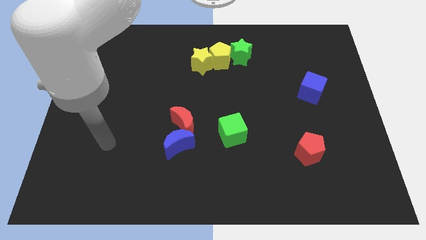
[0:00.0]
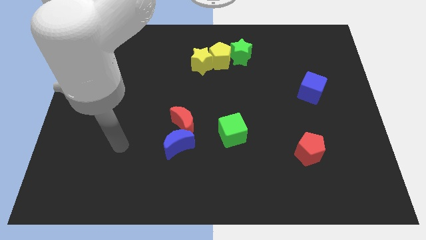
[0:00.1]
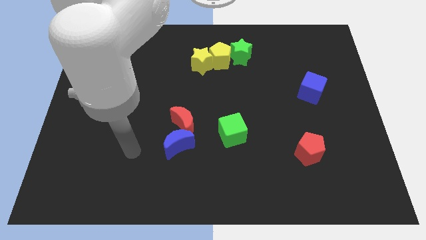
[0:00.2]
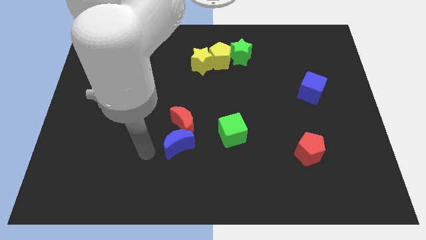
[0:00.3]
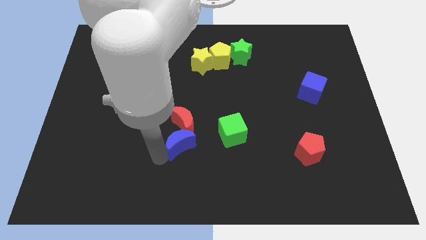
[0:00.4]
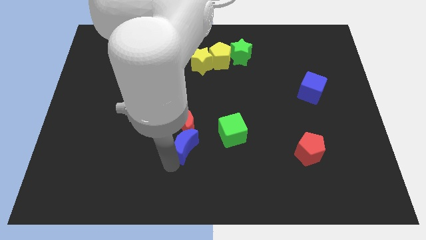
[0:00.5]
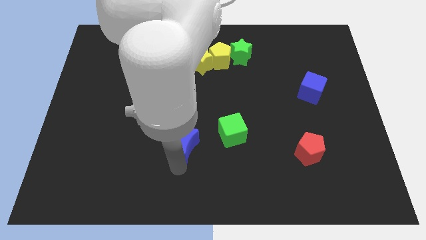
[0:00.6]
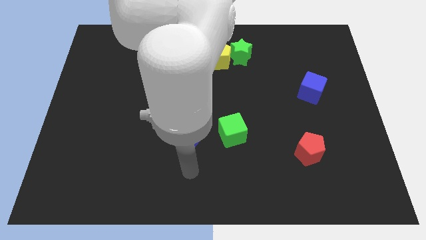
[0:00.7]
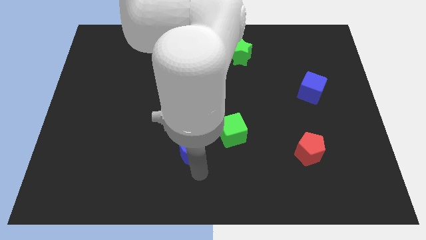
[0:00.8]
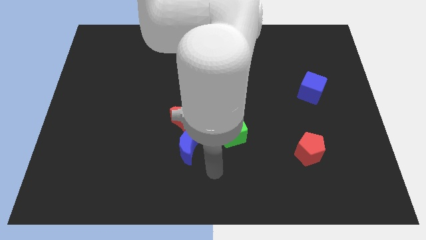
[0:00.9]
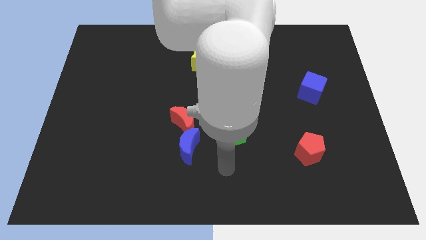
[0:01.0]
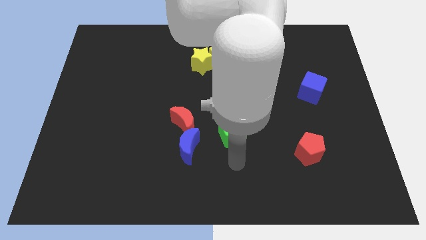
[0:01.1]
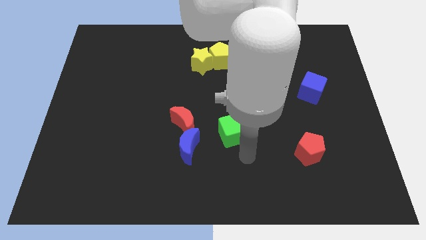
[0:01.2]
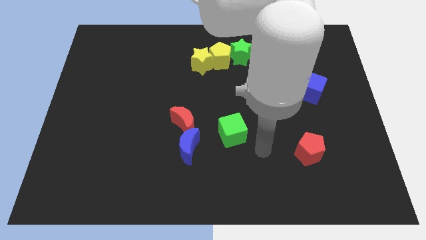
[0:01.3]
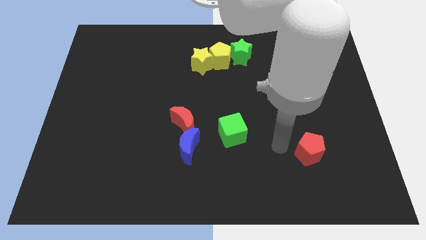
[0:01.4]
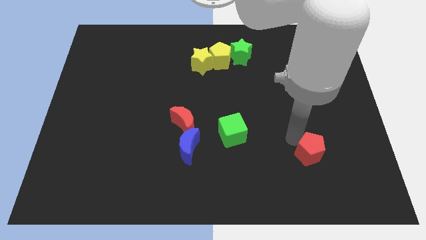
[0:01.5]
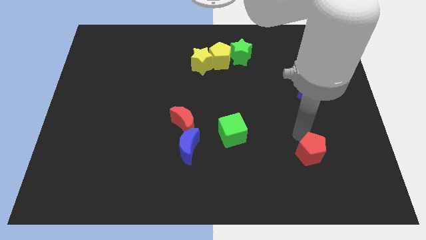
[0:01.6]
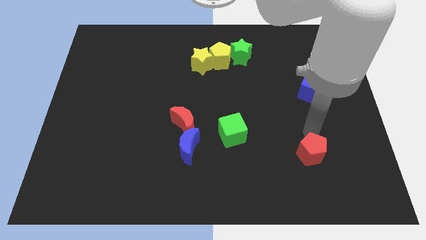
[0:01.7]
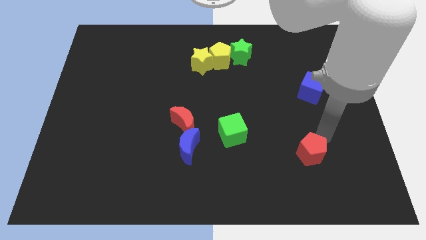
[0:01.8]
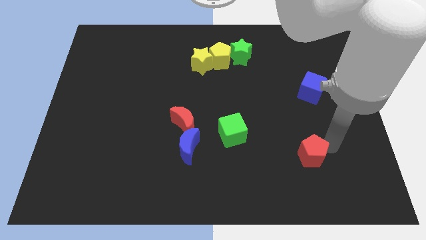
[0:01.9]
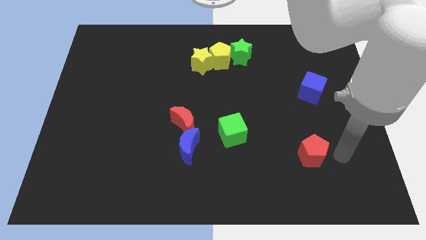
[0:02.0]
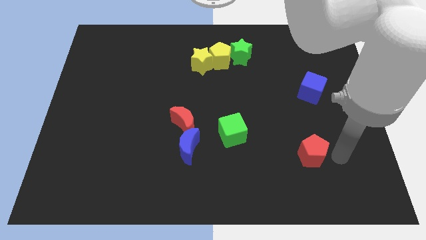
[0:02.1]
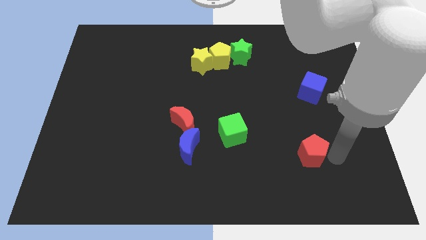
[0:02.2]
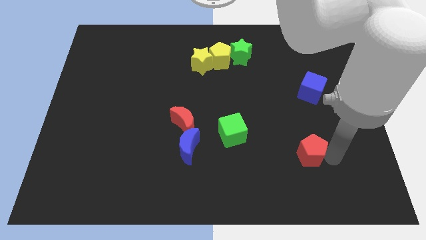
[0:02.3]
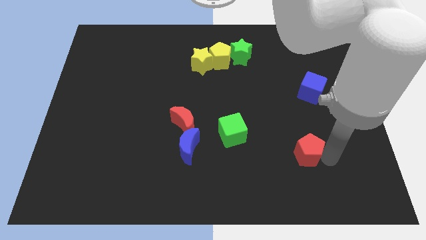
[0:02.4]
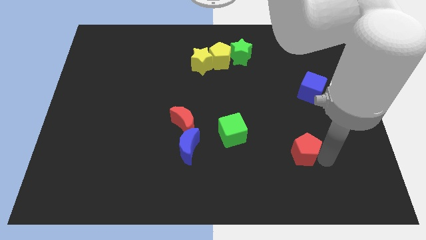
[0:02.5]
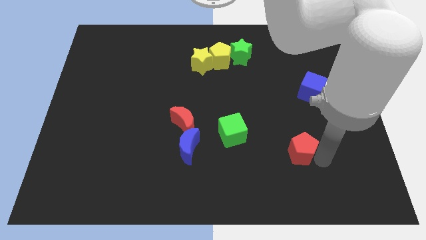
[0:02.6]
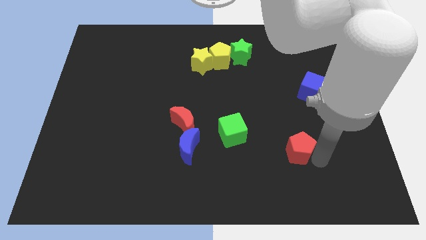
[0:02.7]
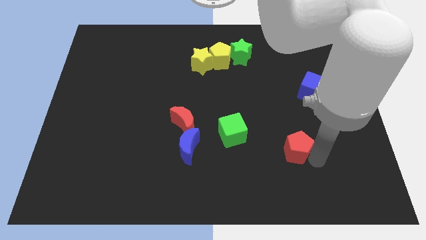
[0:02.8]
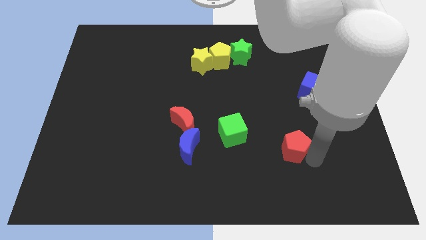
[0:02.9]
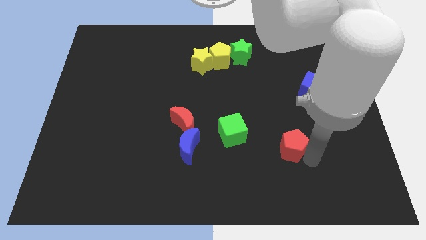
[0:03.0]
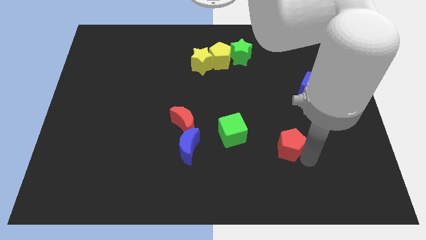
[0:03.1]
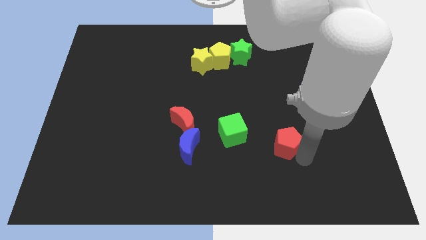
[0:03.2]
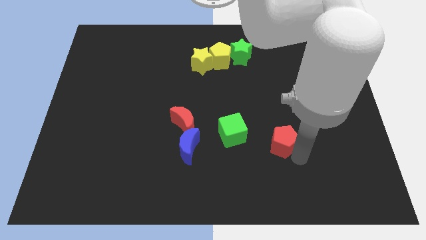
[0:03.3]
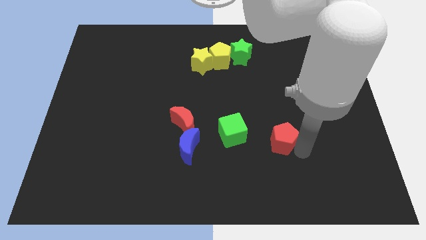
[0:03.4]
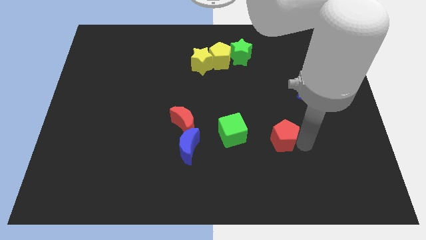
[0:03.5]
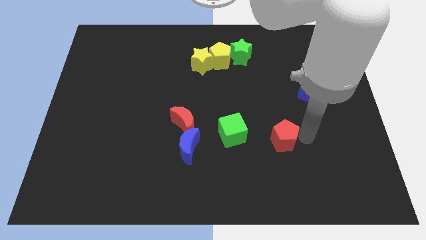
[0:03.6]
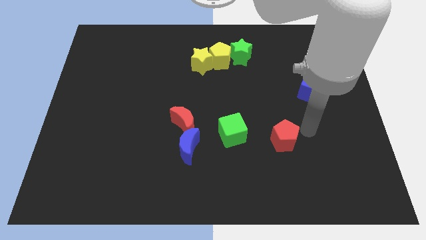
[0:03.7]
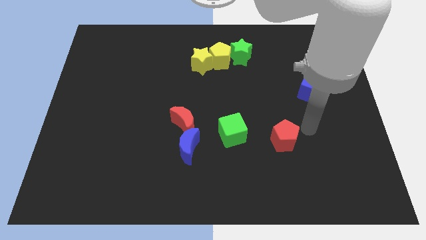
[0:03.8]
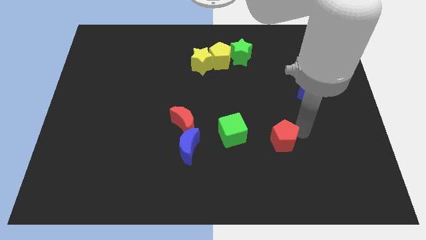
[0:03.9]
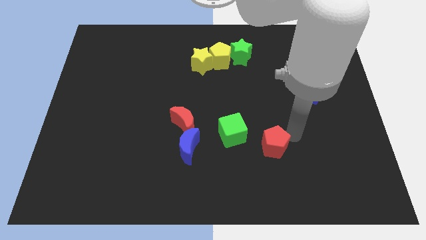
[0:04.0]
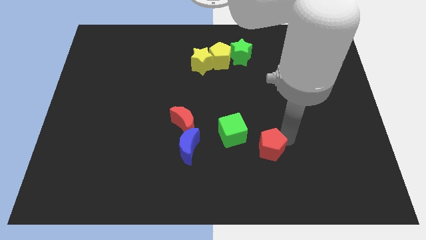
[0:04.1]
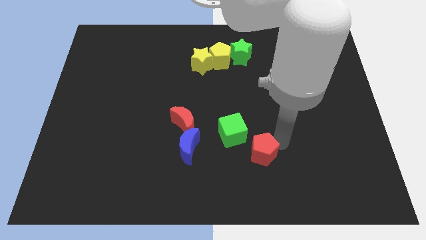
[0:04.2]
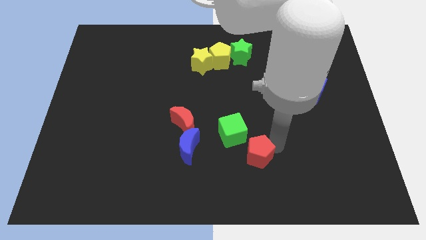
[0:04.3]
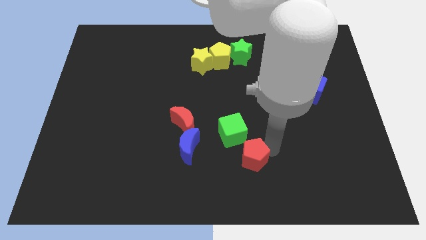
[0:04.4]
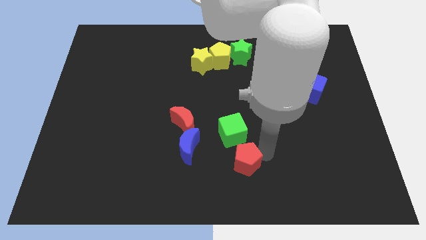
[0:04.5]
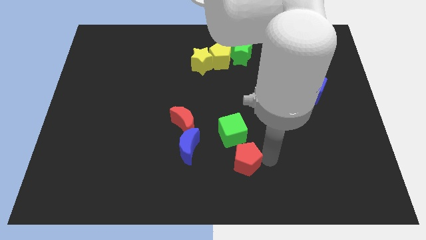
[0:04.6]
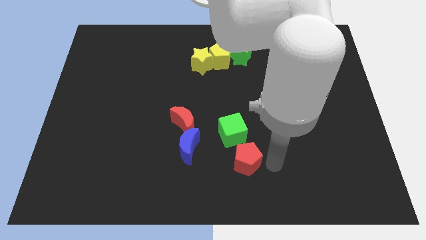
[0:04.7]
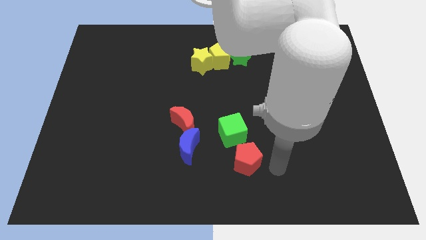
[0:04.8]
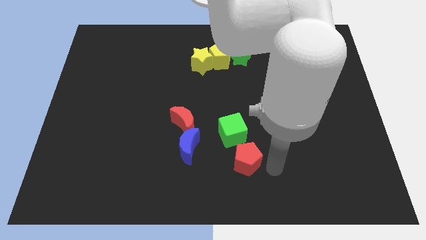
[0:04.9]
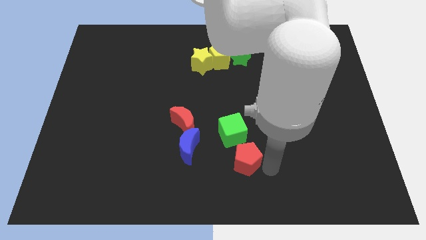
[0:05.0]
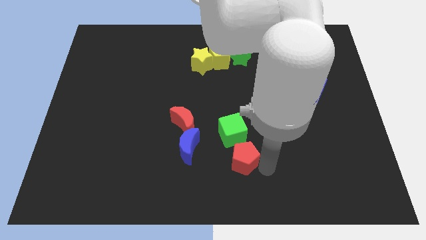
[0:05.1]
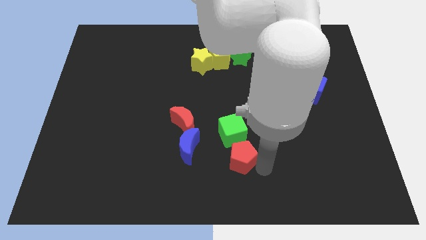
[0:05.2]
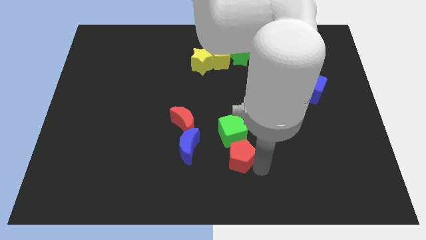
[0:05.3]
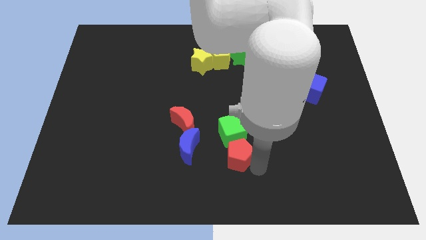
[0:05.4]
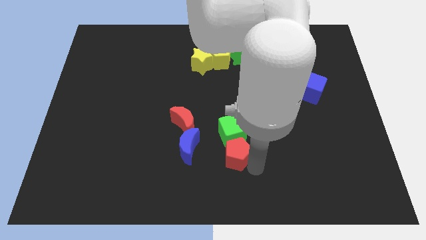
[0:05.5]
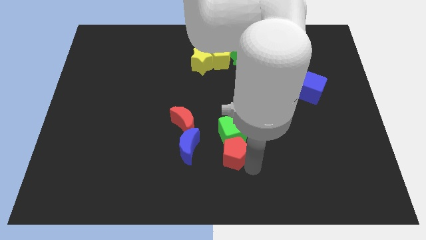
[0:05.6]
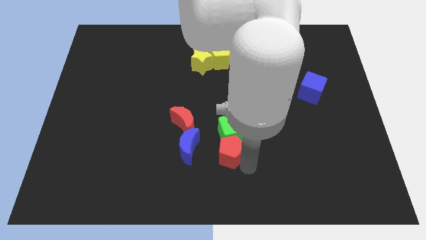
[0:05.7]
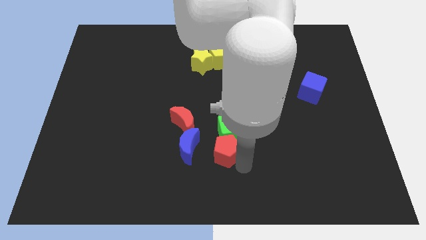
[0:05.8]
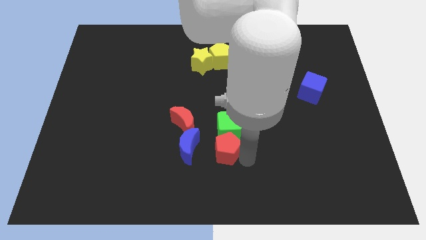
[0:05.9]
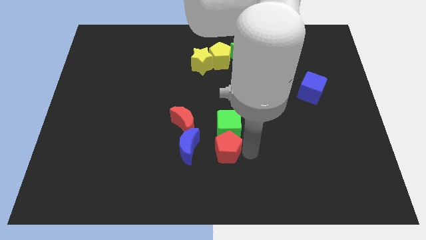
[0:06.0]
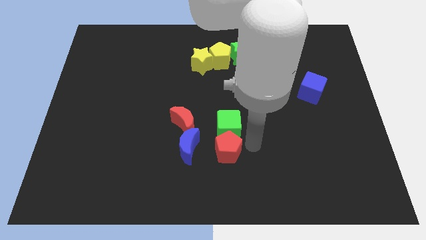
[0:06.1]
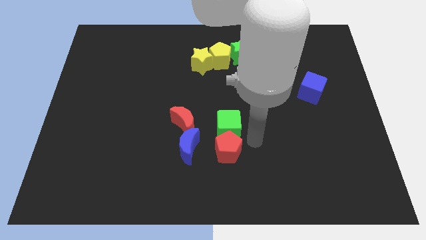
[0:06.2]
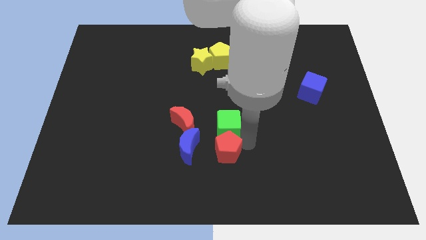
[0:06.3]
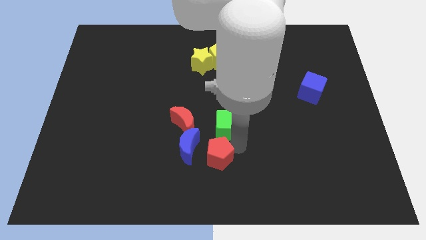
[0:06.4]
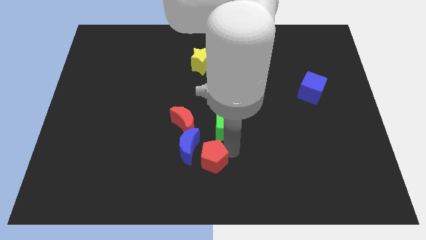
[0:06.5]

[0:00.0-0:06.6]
push the red pentagon left

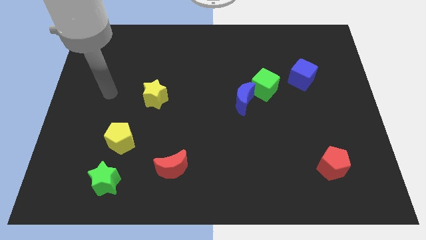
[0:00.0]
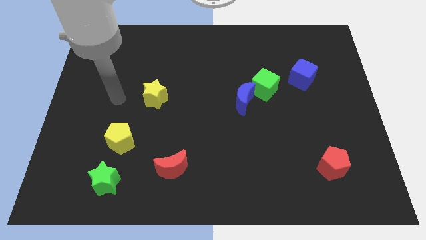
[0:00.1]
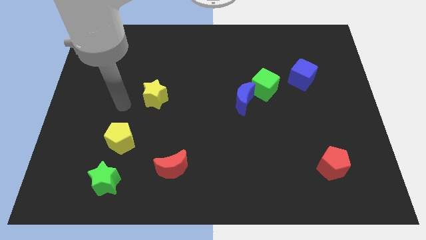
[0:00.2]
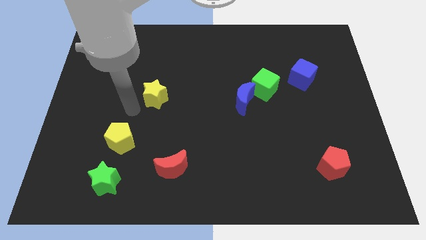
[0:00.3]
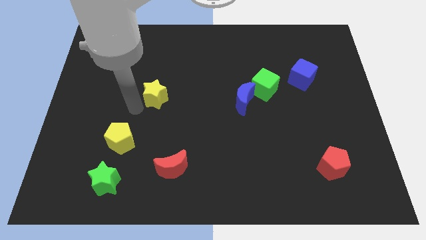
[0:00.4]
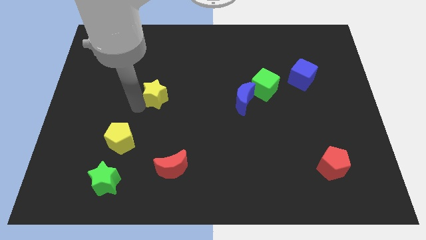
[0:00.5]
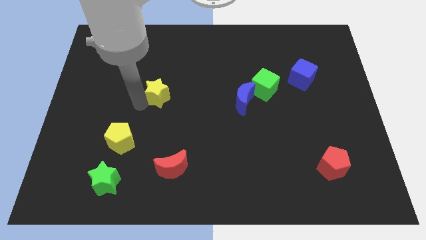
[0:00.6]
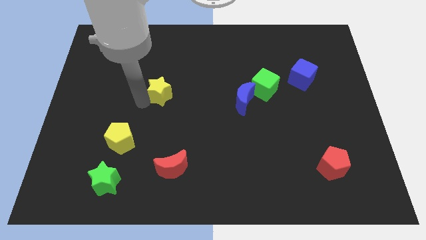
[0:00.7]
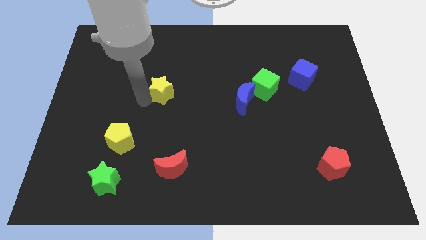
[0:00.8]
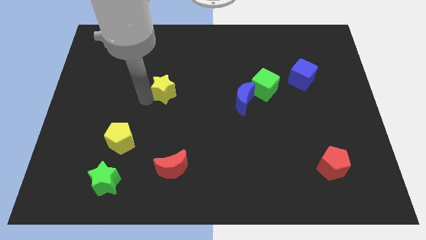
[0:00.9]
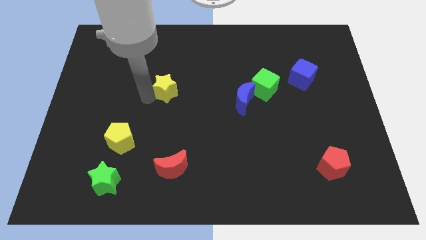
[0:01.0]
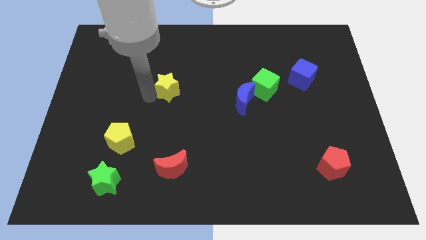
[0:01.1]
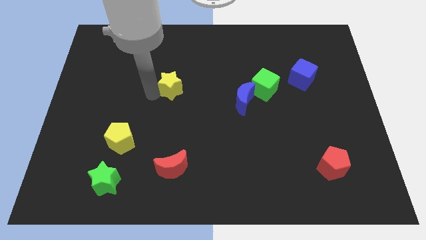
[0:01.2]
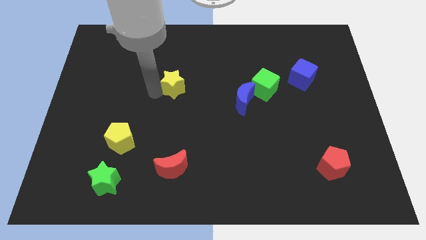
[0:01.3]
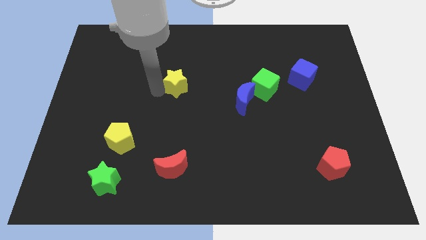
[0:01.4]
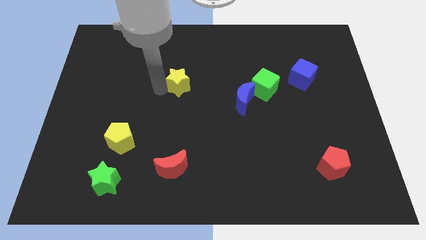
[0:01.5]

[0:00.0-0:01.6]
slide the yellow star a bit upwards and then to the right

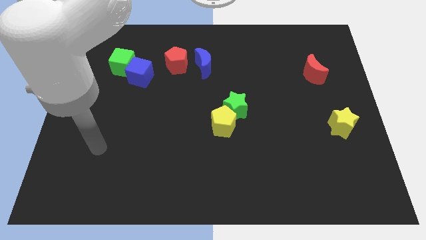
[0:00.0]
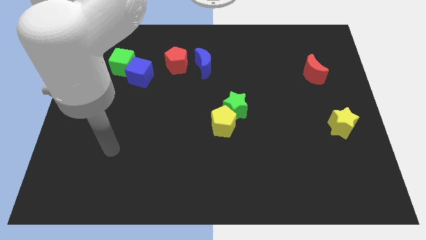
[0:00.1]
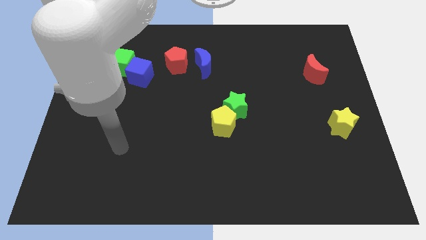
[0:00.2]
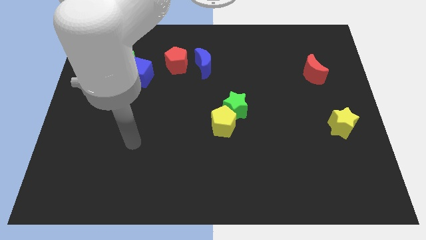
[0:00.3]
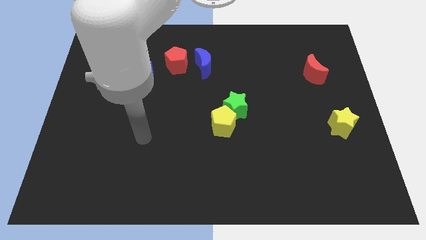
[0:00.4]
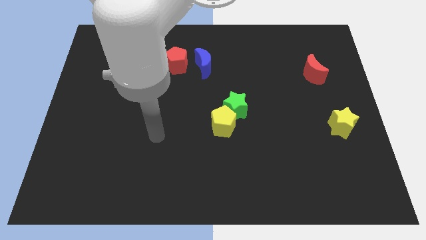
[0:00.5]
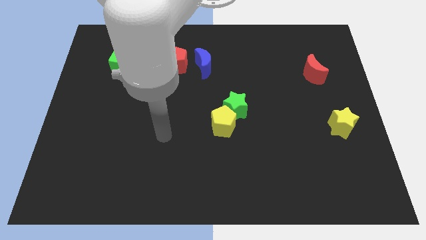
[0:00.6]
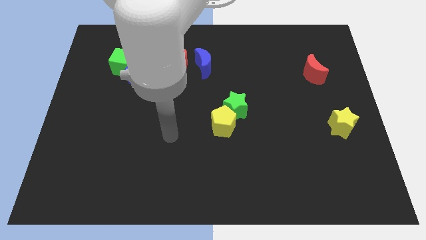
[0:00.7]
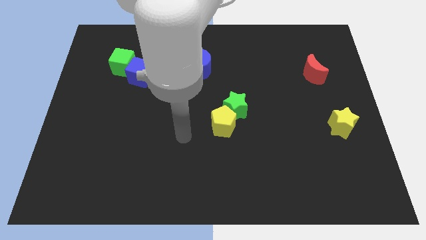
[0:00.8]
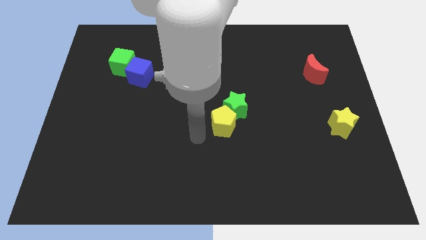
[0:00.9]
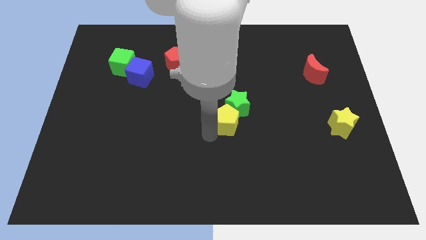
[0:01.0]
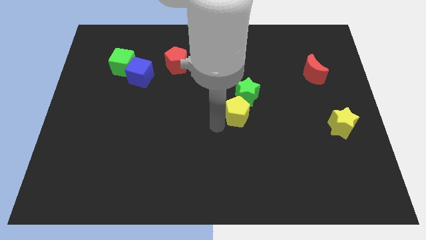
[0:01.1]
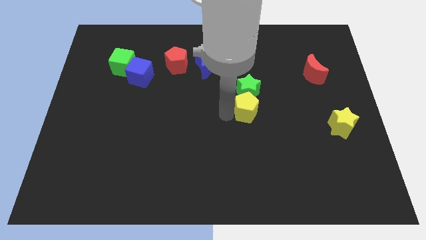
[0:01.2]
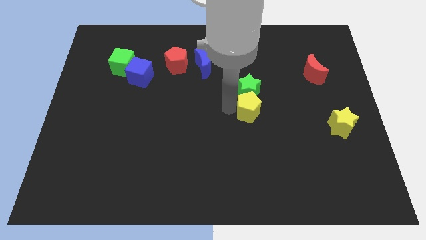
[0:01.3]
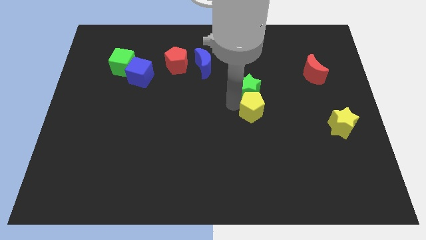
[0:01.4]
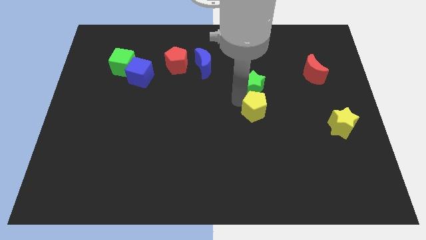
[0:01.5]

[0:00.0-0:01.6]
slightly push the green star up and to the right diagonally
